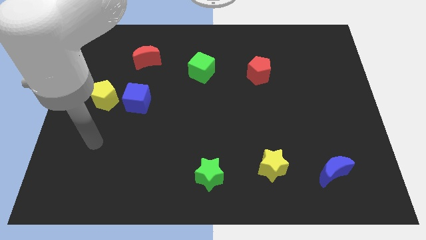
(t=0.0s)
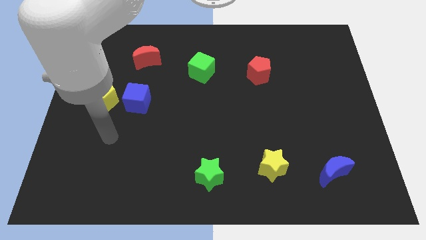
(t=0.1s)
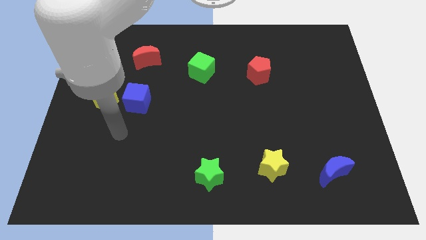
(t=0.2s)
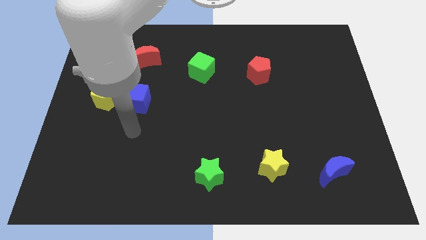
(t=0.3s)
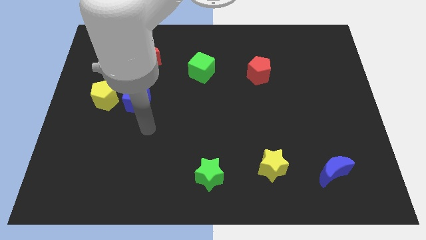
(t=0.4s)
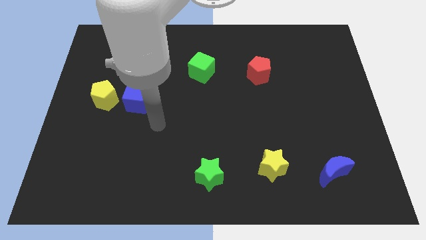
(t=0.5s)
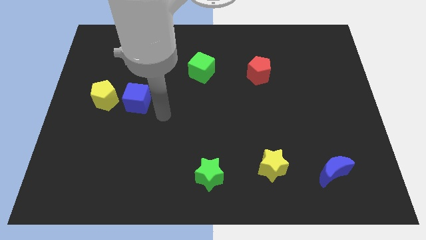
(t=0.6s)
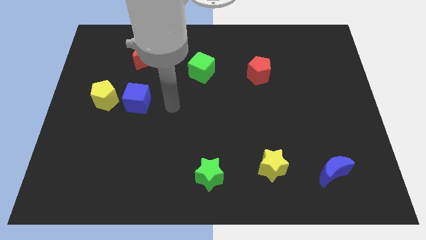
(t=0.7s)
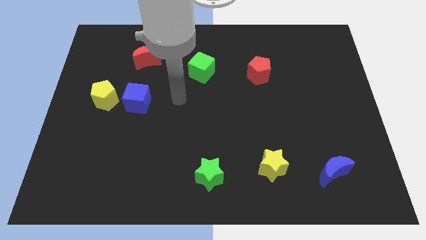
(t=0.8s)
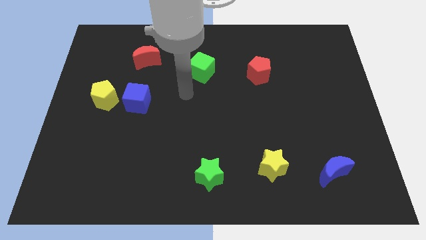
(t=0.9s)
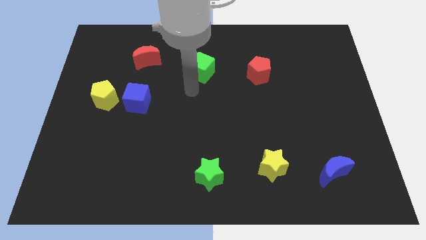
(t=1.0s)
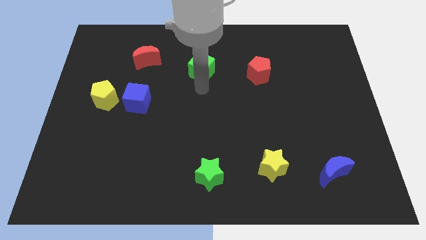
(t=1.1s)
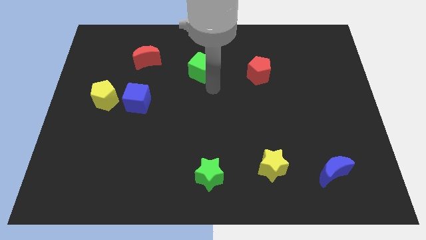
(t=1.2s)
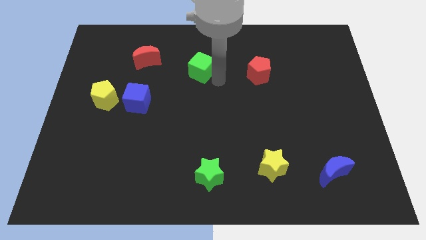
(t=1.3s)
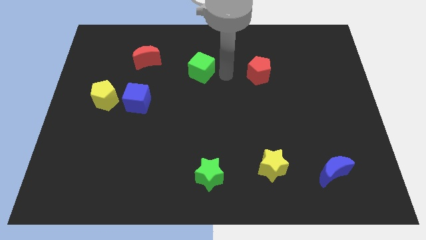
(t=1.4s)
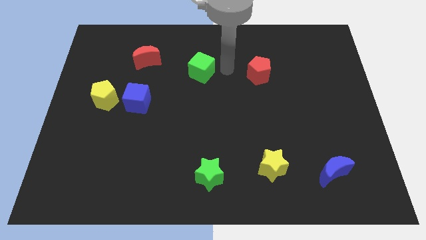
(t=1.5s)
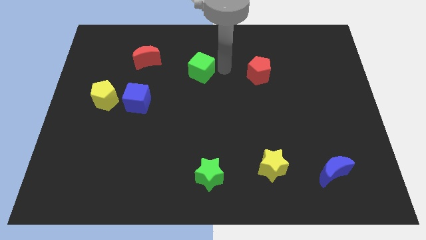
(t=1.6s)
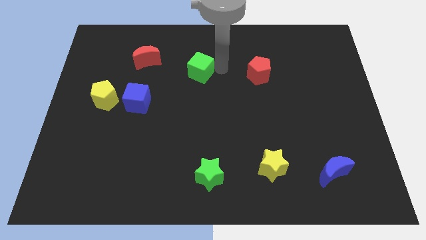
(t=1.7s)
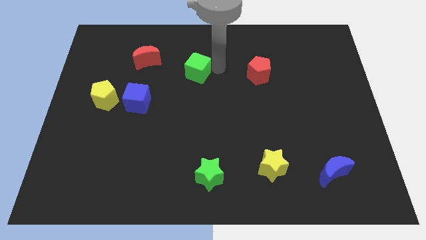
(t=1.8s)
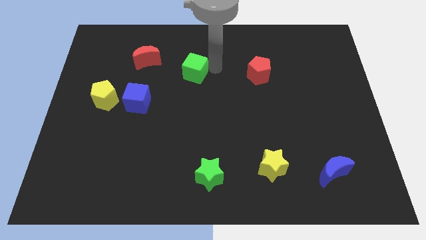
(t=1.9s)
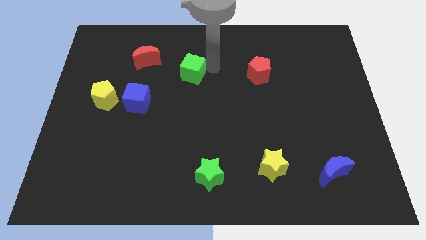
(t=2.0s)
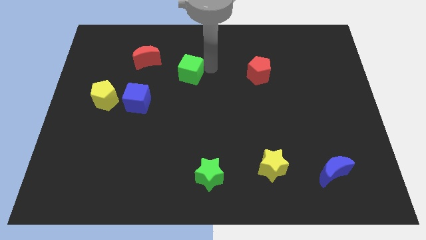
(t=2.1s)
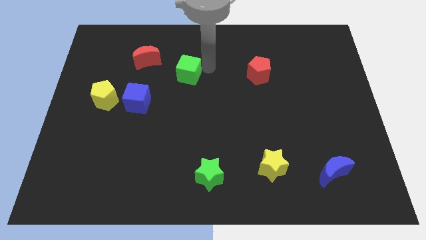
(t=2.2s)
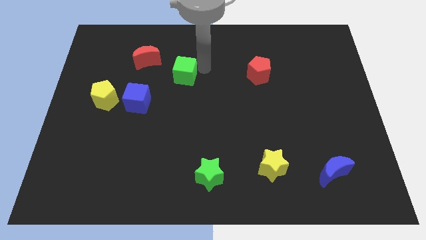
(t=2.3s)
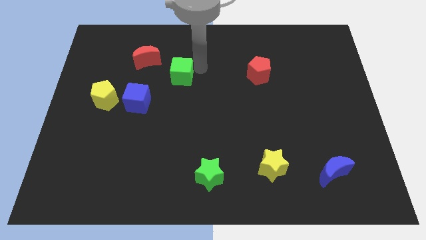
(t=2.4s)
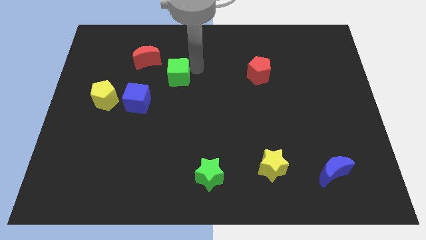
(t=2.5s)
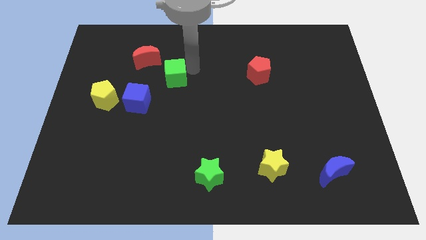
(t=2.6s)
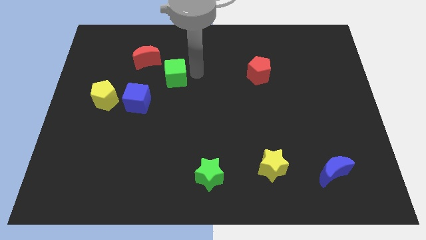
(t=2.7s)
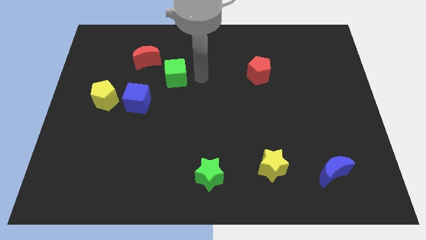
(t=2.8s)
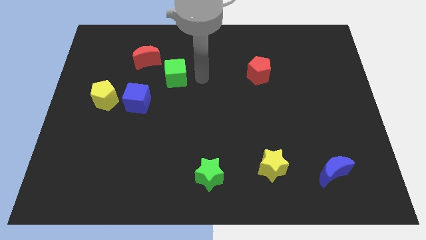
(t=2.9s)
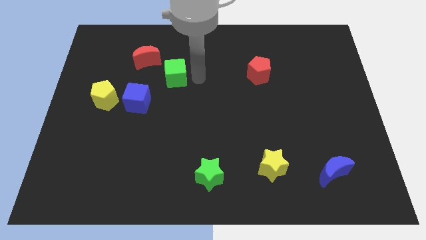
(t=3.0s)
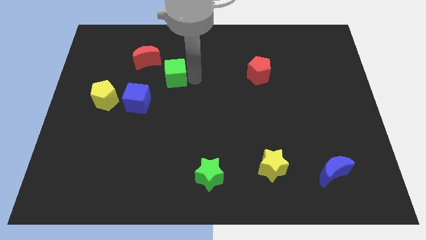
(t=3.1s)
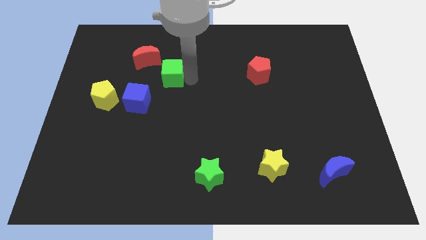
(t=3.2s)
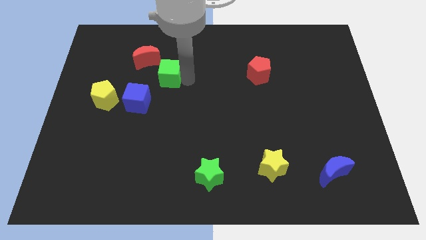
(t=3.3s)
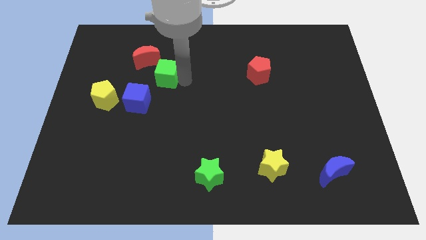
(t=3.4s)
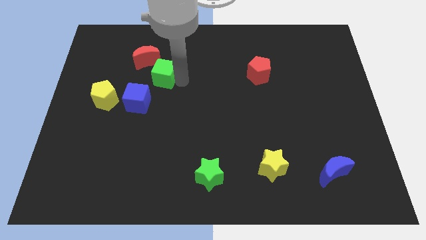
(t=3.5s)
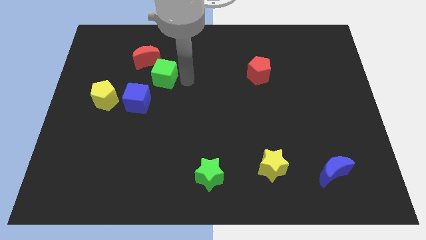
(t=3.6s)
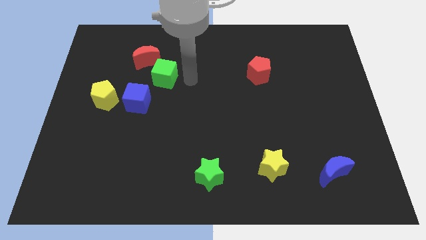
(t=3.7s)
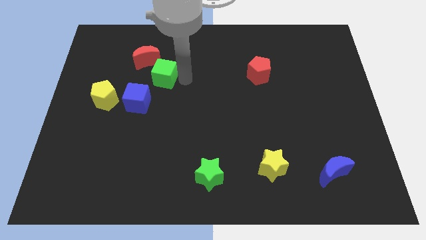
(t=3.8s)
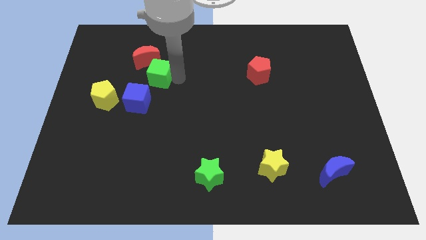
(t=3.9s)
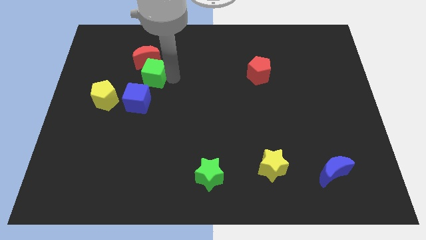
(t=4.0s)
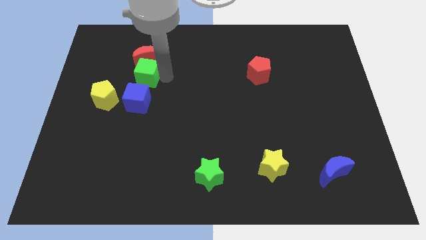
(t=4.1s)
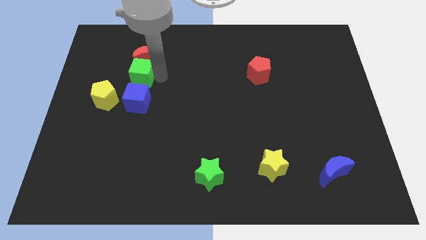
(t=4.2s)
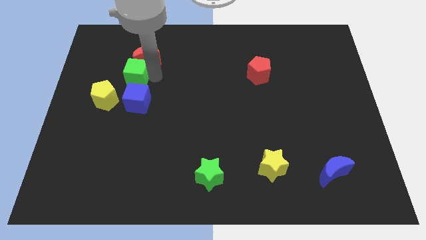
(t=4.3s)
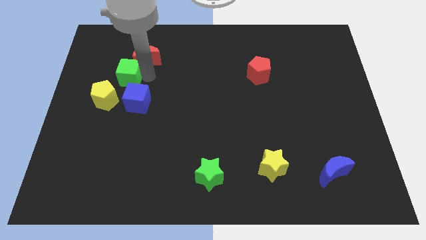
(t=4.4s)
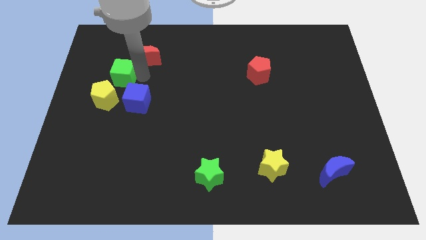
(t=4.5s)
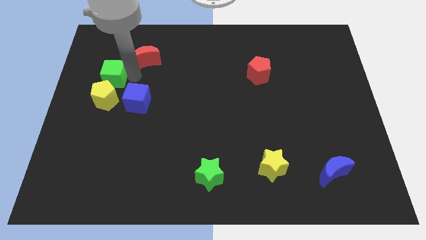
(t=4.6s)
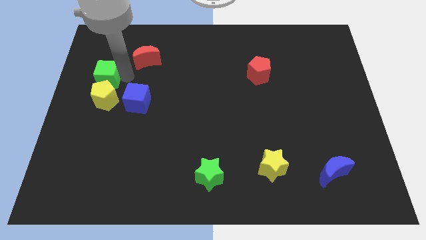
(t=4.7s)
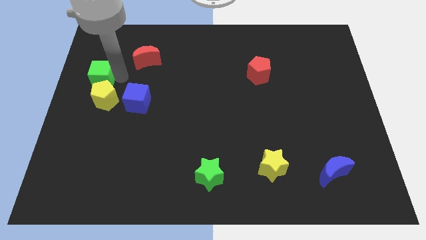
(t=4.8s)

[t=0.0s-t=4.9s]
slide the green cube to the left side

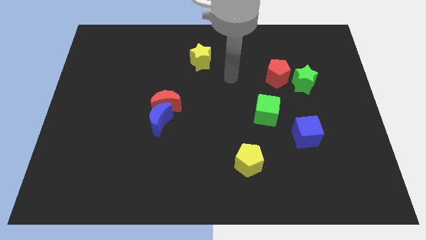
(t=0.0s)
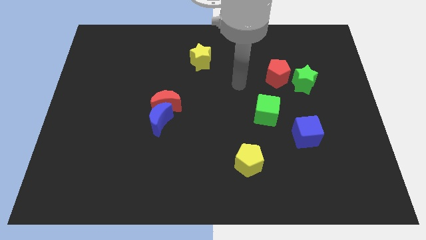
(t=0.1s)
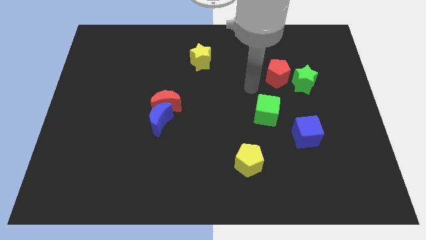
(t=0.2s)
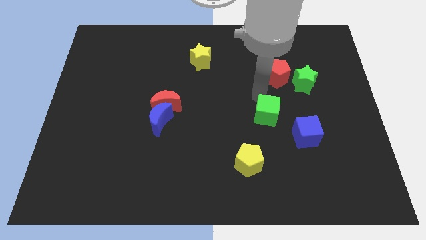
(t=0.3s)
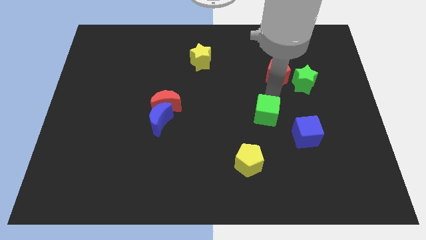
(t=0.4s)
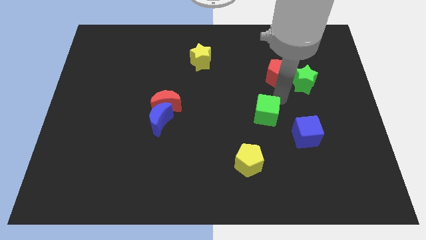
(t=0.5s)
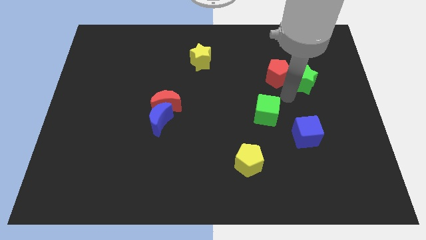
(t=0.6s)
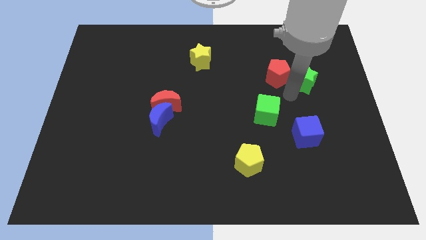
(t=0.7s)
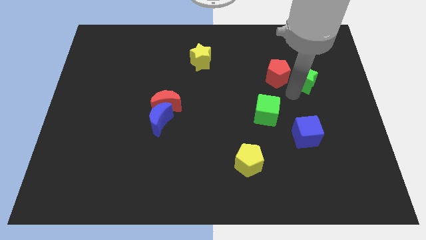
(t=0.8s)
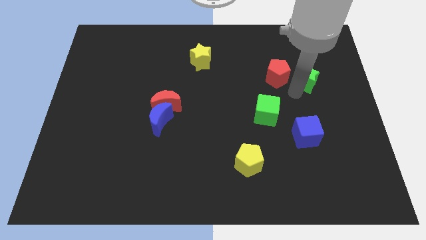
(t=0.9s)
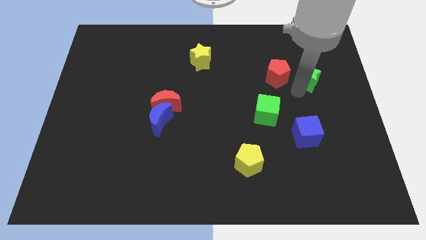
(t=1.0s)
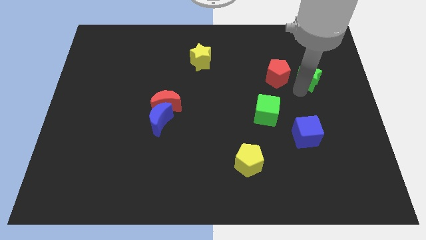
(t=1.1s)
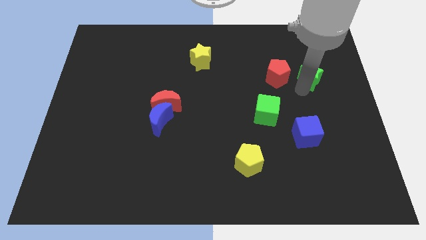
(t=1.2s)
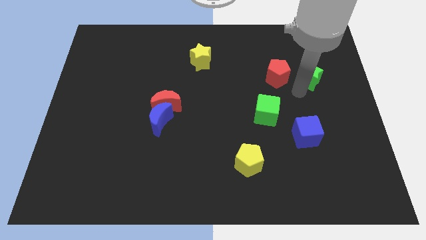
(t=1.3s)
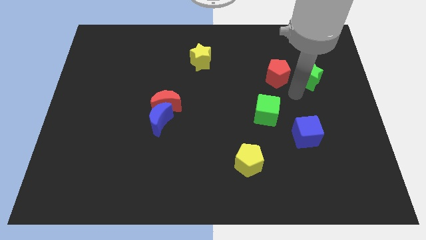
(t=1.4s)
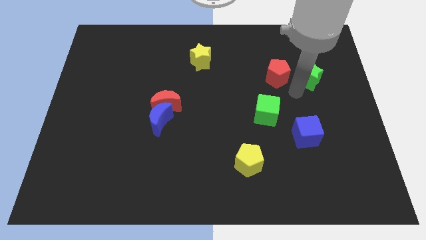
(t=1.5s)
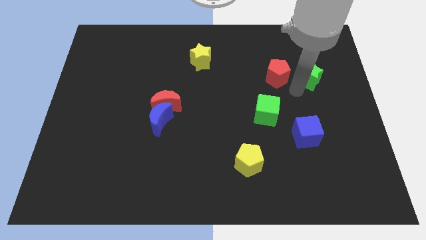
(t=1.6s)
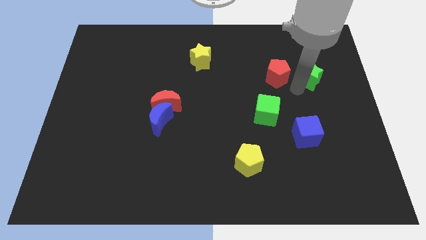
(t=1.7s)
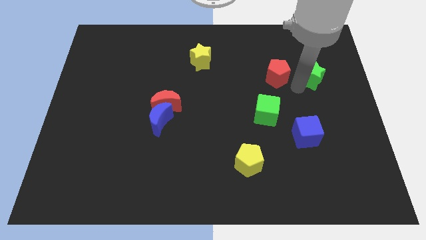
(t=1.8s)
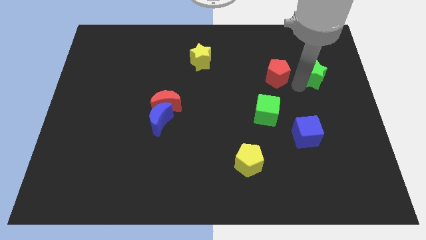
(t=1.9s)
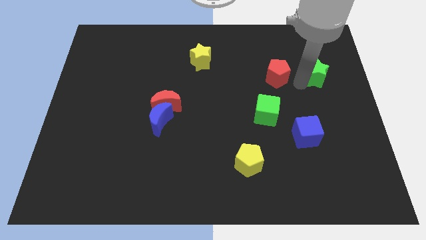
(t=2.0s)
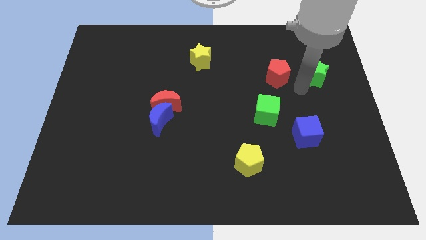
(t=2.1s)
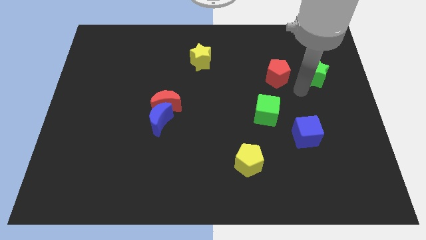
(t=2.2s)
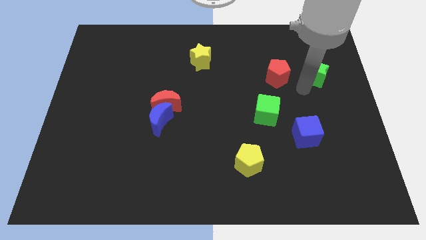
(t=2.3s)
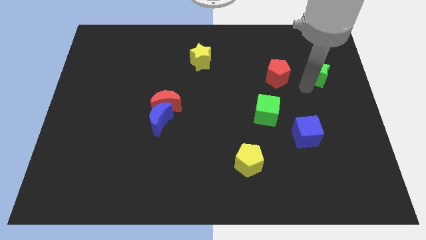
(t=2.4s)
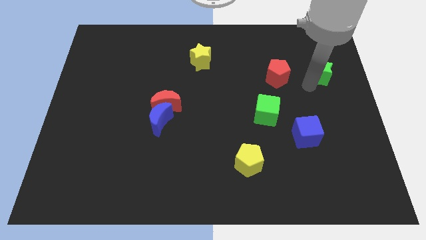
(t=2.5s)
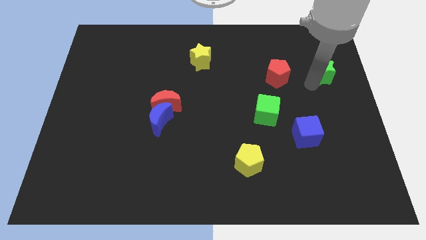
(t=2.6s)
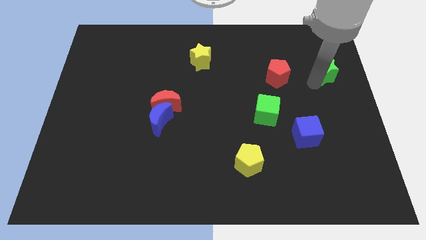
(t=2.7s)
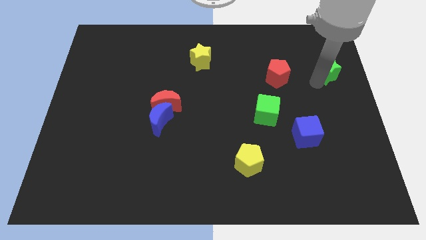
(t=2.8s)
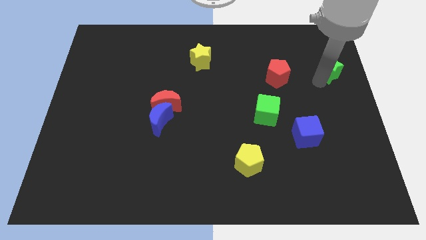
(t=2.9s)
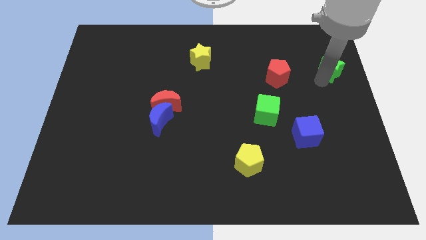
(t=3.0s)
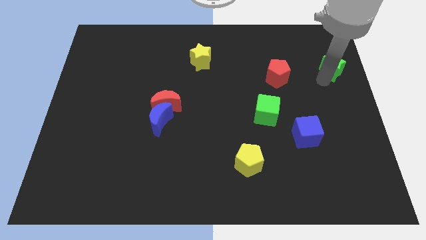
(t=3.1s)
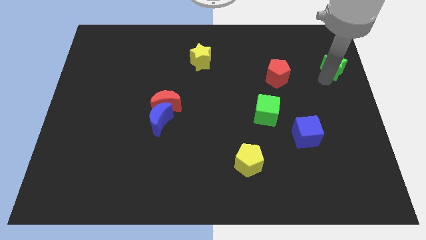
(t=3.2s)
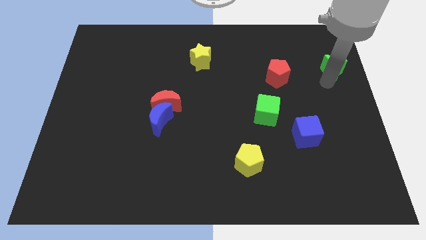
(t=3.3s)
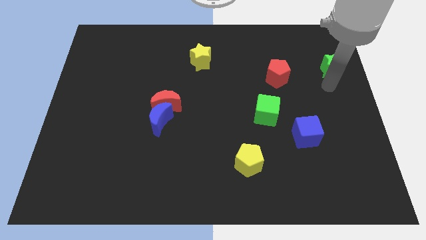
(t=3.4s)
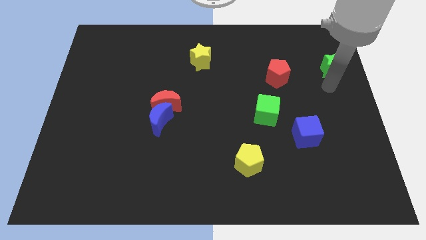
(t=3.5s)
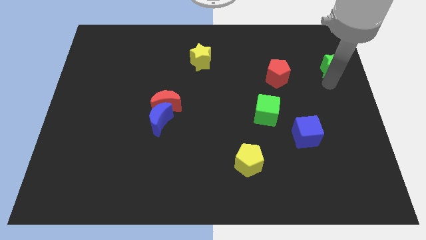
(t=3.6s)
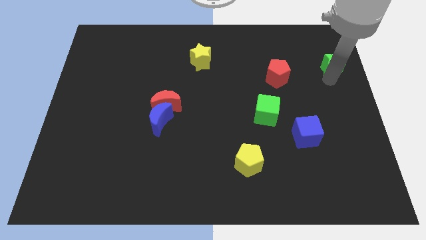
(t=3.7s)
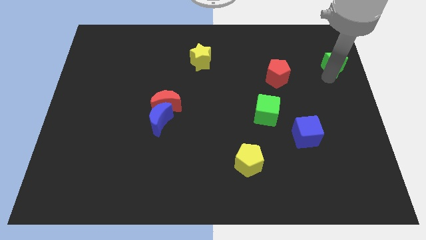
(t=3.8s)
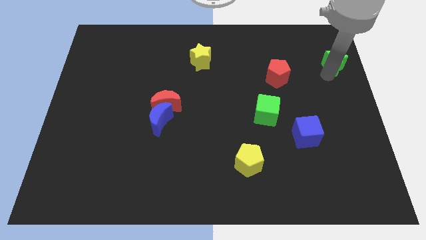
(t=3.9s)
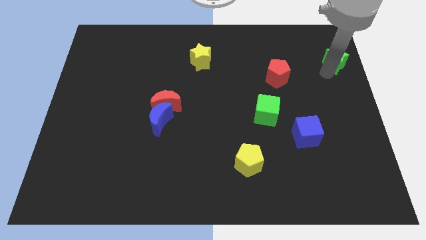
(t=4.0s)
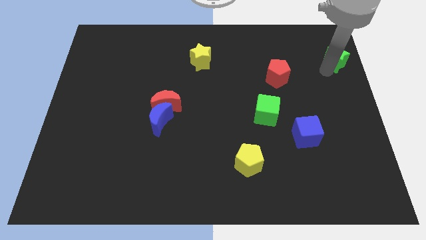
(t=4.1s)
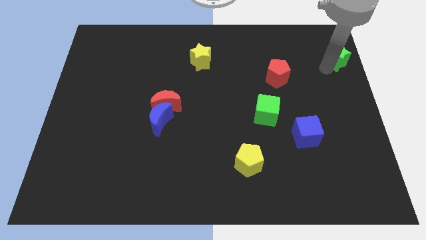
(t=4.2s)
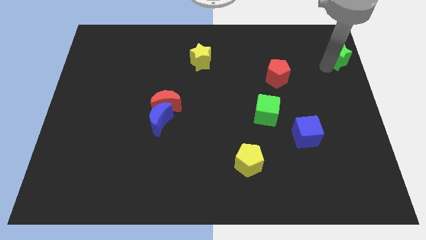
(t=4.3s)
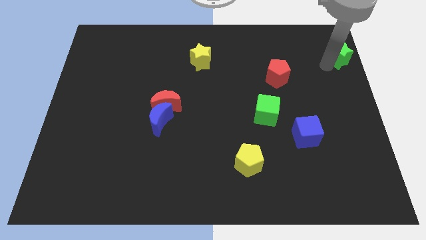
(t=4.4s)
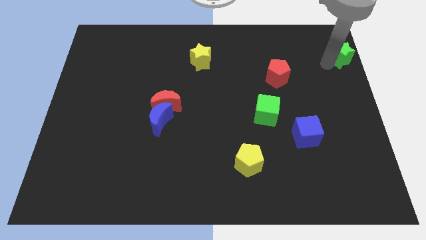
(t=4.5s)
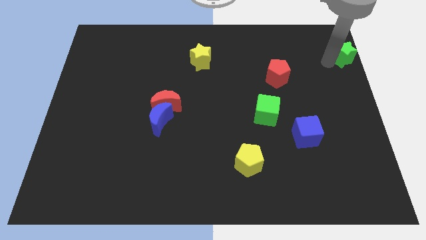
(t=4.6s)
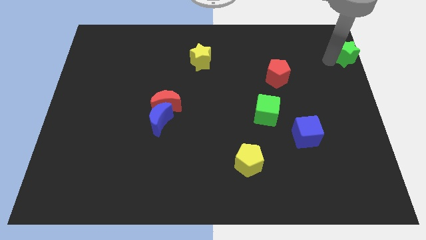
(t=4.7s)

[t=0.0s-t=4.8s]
put the green star to the top right corner
